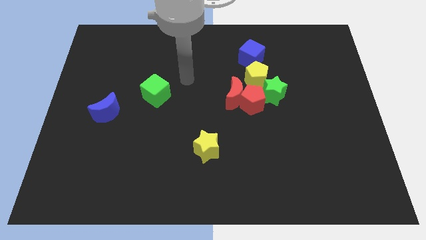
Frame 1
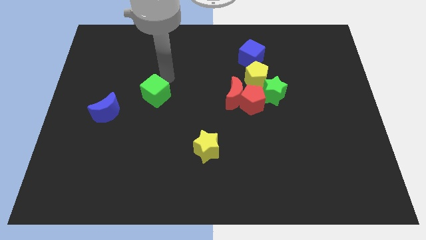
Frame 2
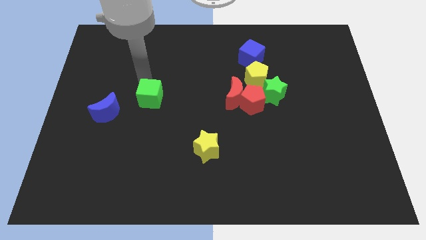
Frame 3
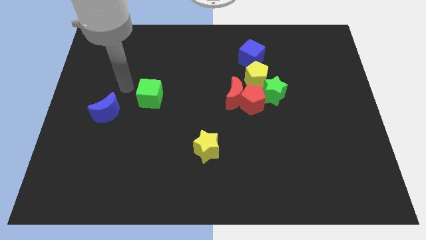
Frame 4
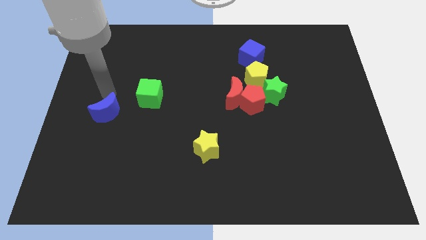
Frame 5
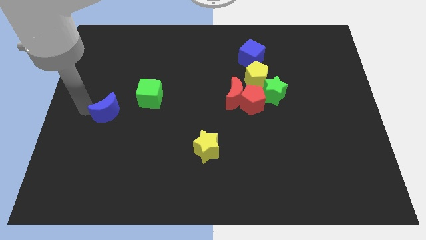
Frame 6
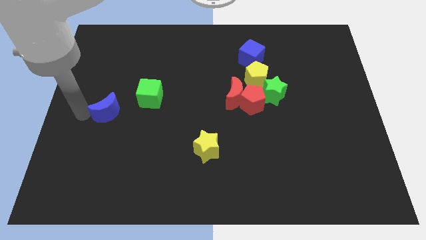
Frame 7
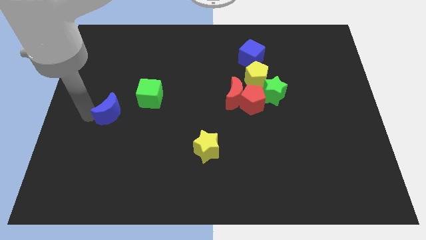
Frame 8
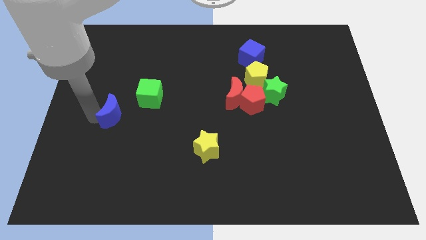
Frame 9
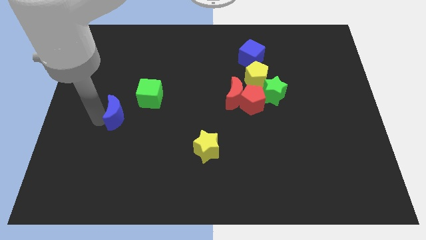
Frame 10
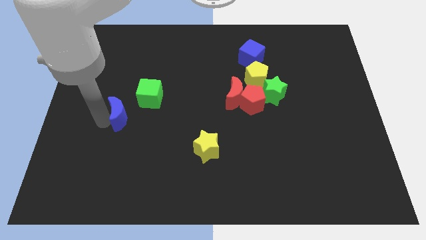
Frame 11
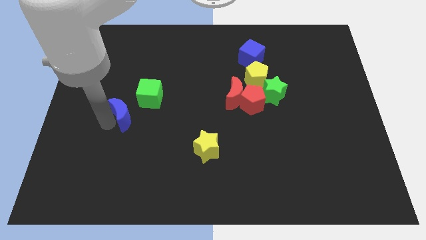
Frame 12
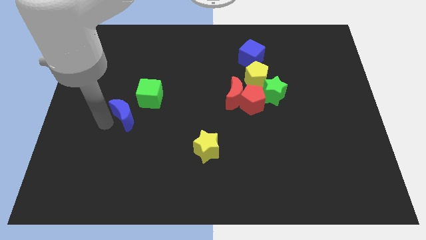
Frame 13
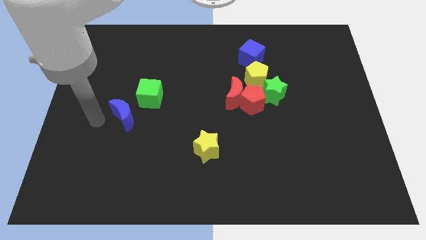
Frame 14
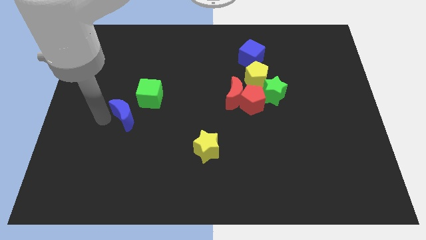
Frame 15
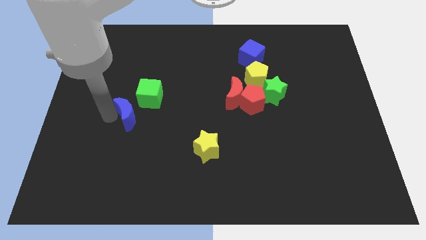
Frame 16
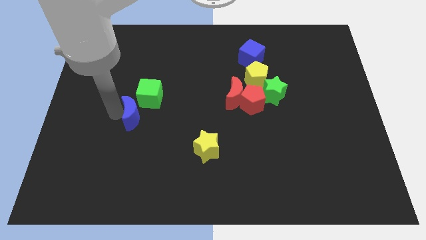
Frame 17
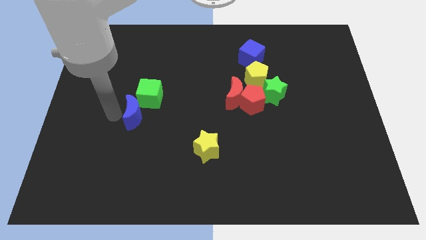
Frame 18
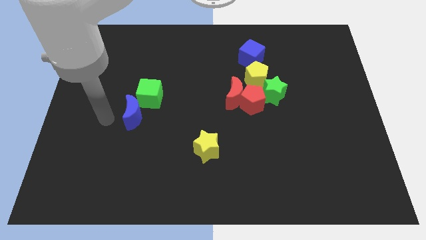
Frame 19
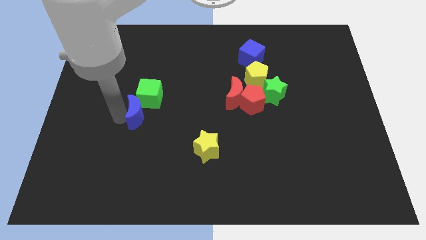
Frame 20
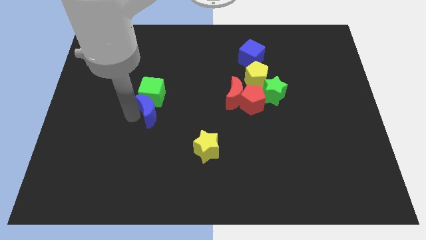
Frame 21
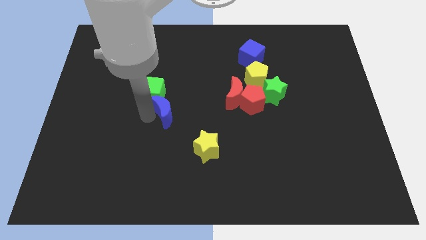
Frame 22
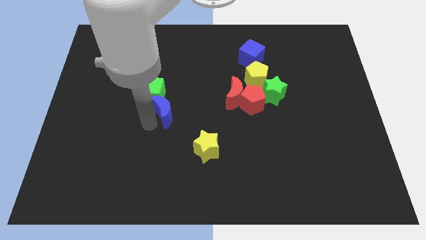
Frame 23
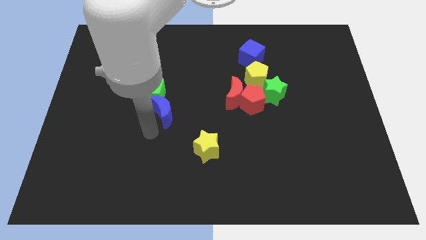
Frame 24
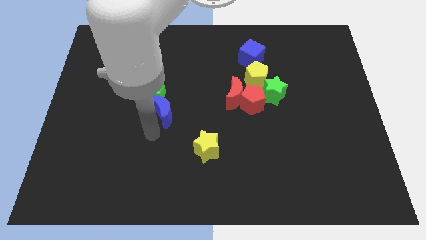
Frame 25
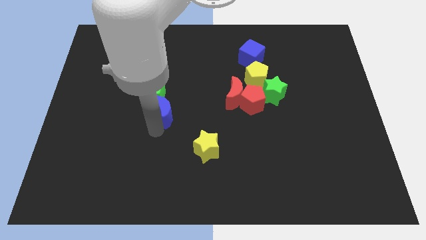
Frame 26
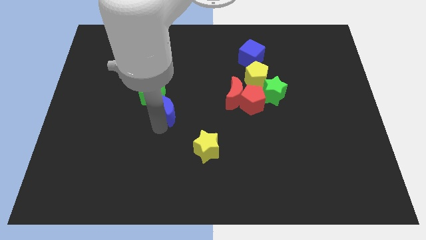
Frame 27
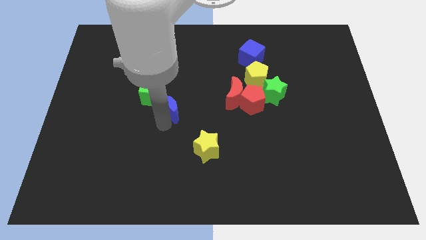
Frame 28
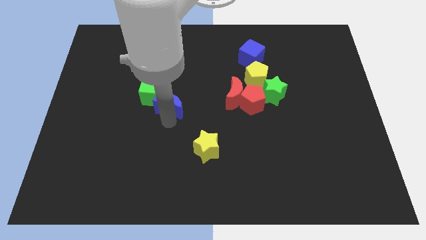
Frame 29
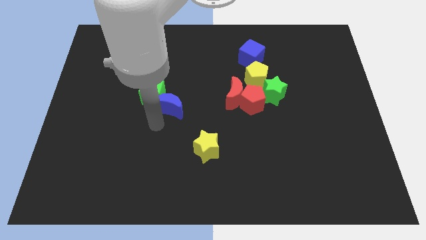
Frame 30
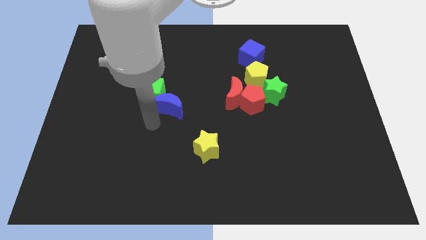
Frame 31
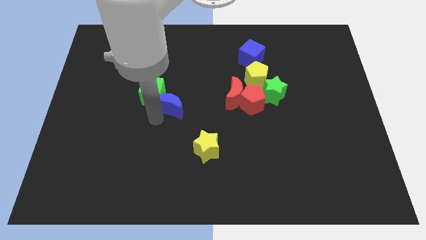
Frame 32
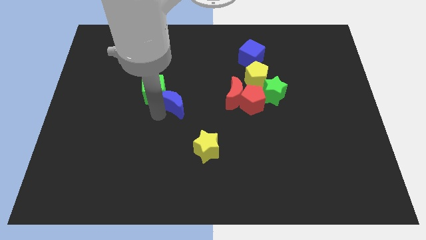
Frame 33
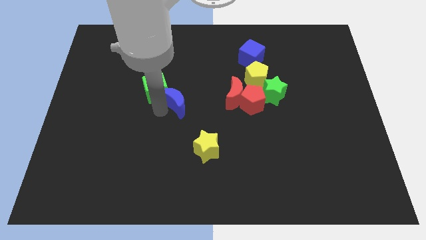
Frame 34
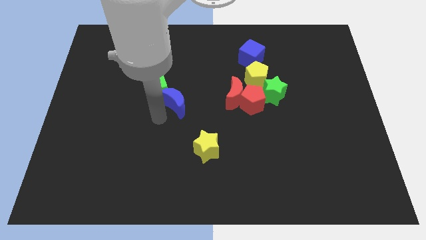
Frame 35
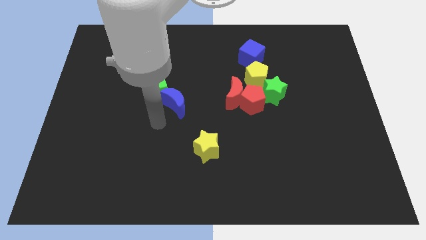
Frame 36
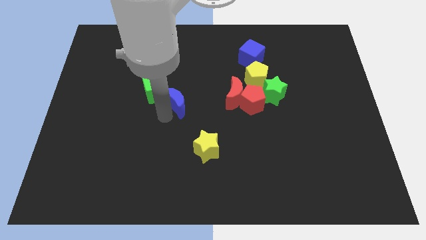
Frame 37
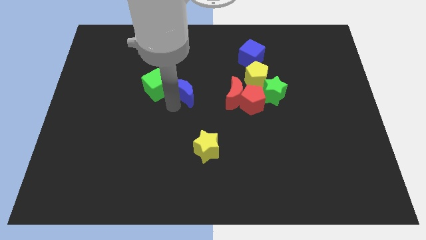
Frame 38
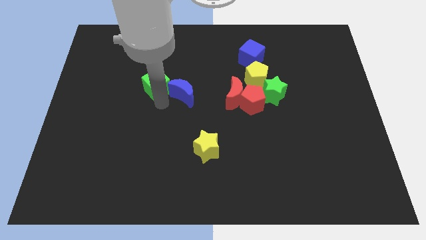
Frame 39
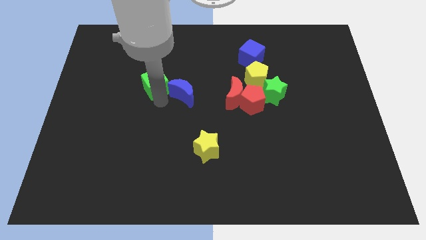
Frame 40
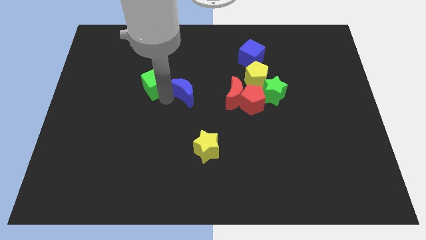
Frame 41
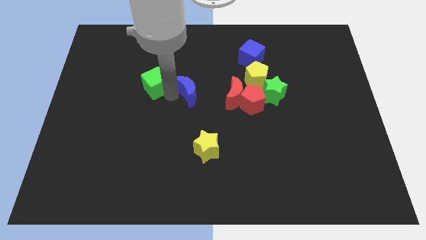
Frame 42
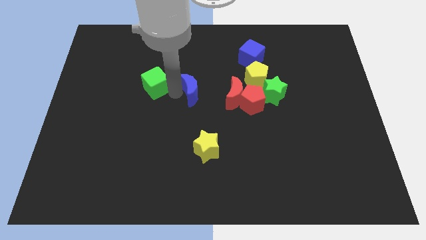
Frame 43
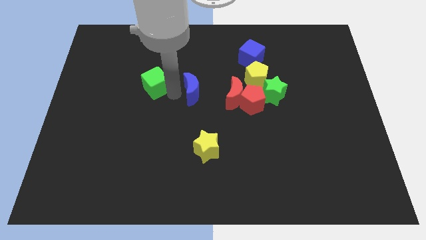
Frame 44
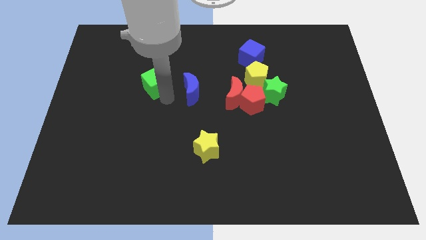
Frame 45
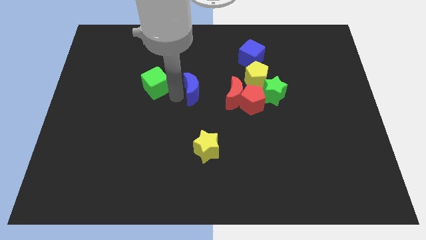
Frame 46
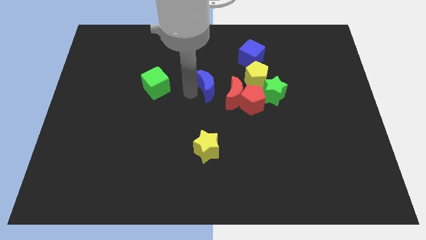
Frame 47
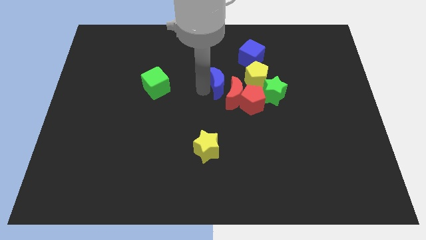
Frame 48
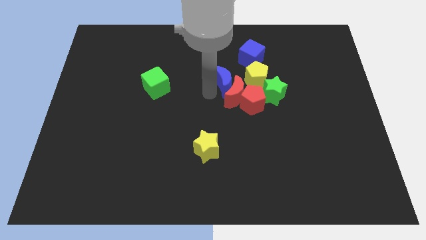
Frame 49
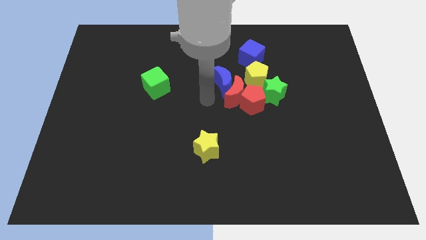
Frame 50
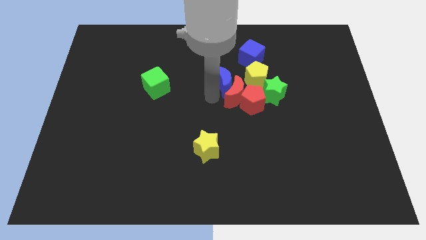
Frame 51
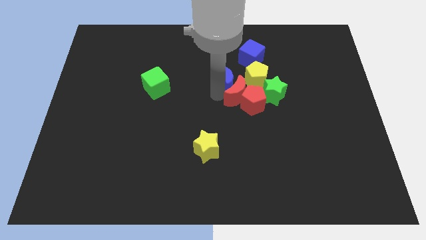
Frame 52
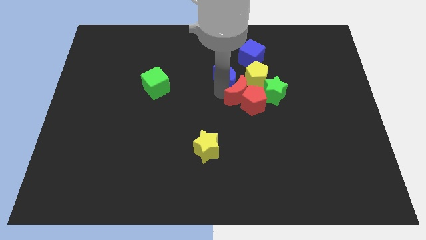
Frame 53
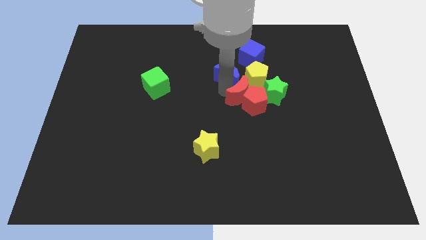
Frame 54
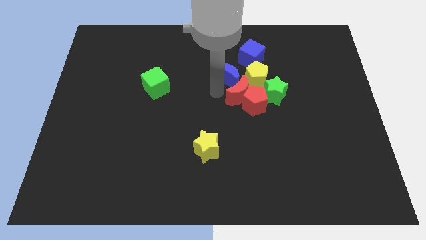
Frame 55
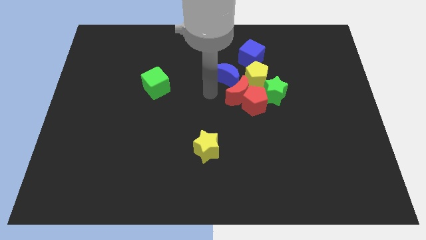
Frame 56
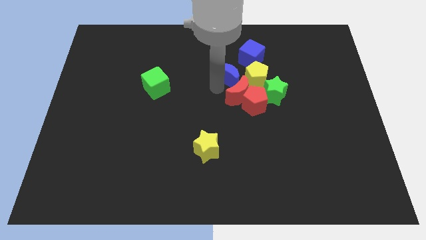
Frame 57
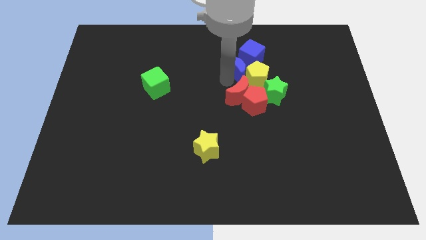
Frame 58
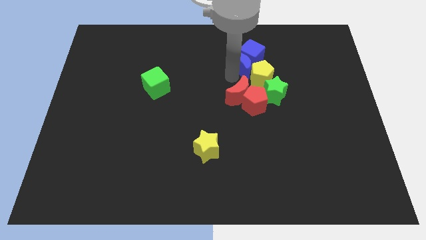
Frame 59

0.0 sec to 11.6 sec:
slide the blue moon close to the blue cube

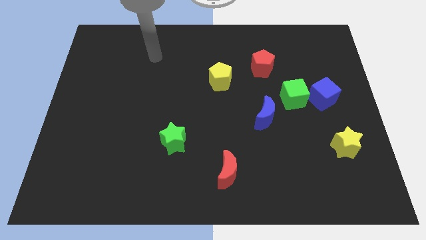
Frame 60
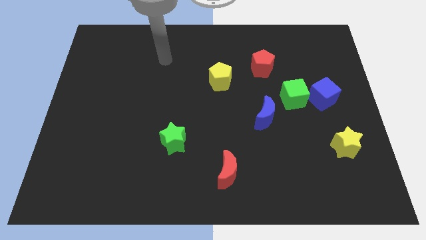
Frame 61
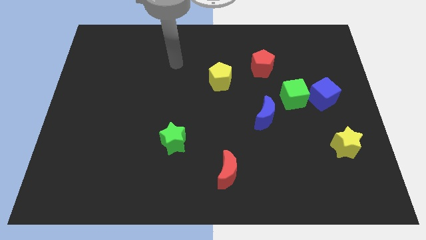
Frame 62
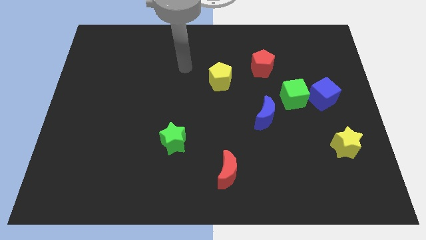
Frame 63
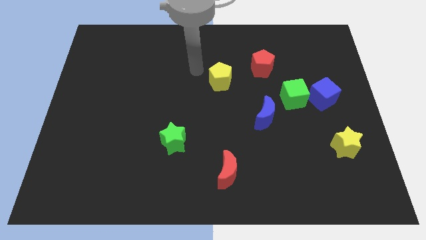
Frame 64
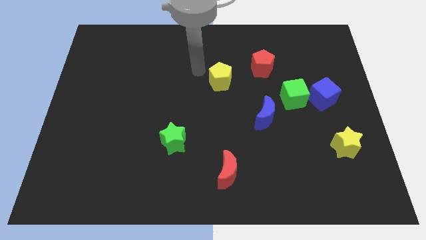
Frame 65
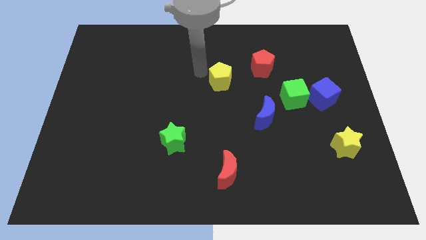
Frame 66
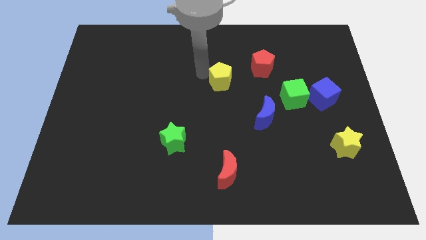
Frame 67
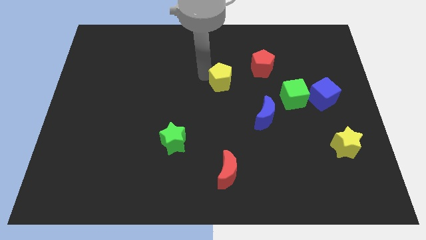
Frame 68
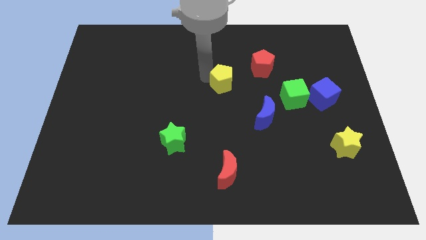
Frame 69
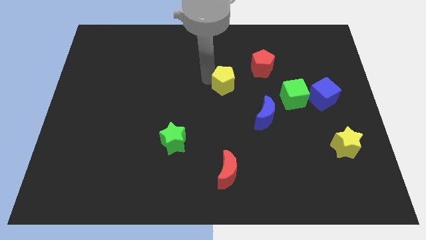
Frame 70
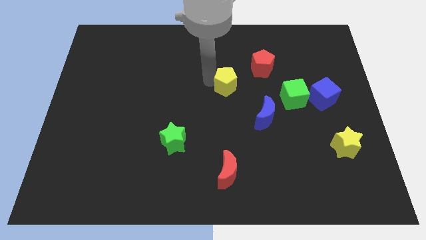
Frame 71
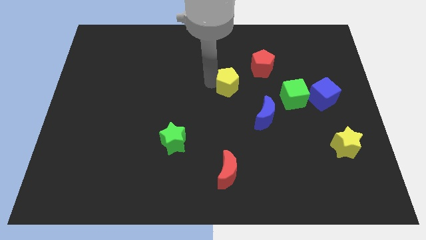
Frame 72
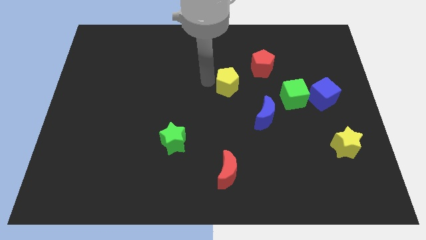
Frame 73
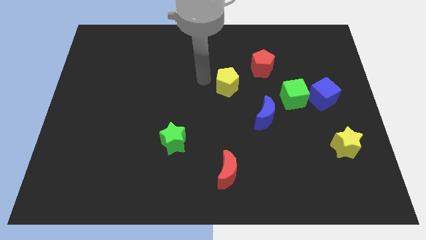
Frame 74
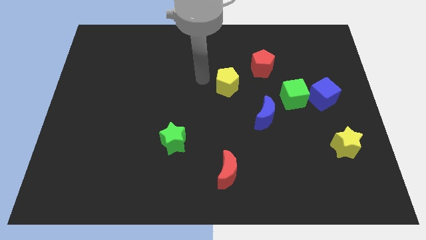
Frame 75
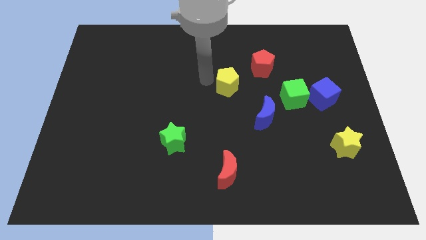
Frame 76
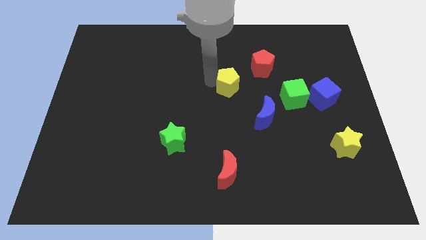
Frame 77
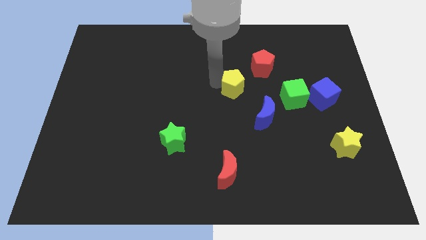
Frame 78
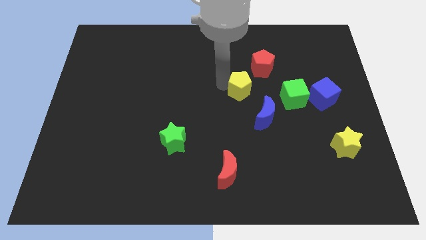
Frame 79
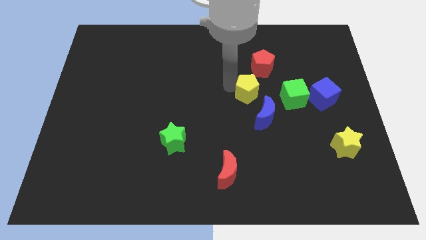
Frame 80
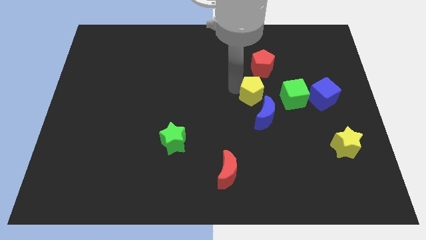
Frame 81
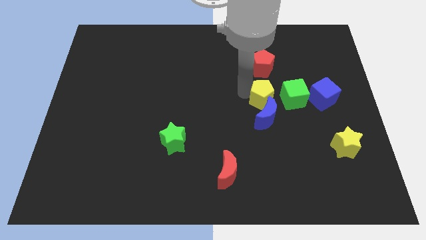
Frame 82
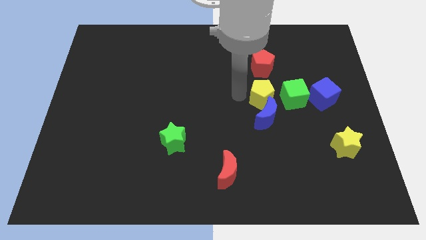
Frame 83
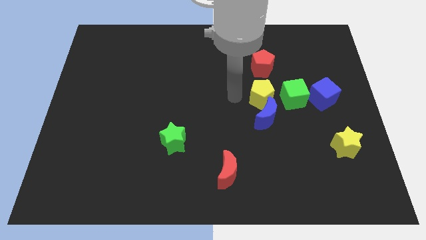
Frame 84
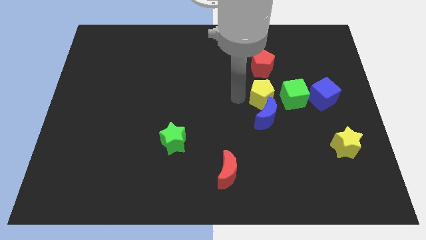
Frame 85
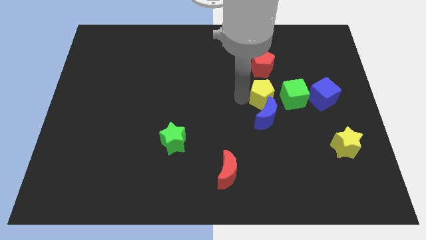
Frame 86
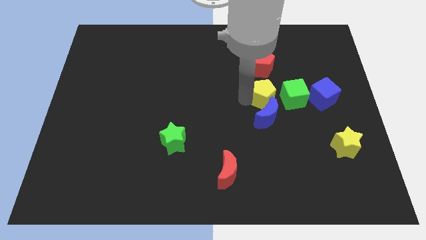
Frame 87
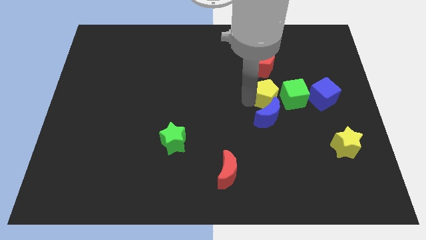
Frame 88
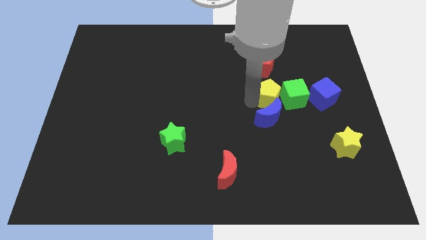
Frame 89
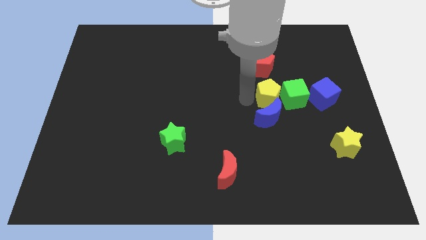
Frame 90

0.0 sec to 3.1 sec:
slide the yellow pentagon next to the green cube
